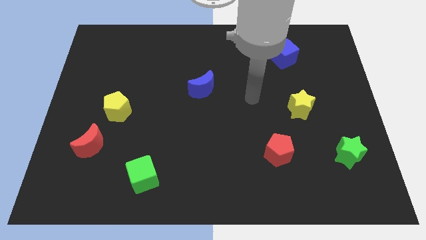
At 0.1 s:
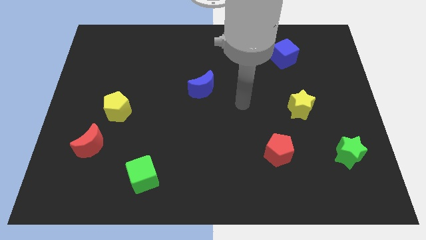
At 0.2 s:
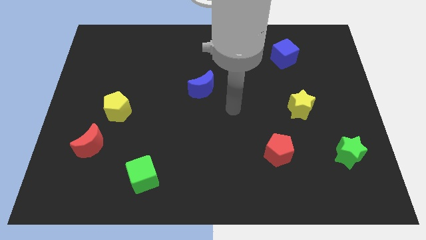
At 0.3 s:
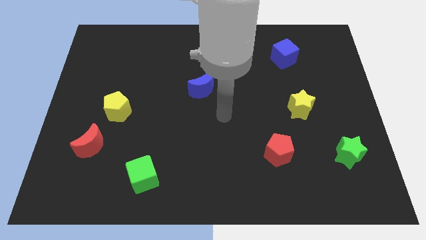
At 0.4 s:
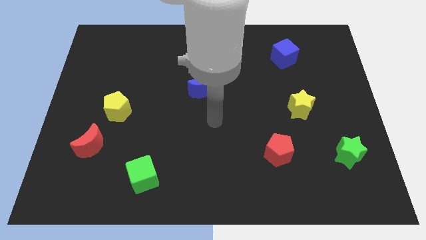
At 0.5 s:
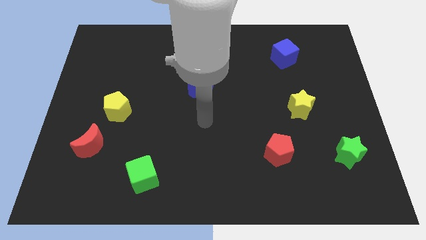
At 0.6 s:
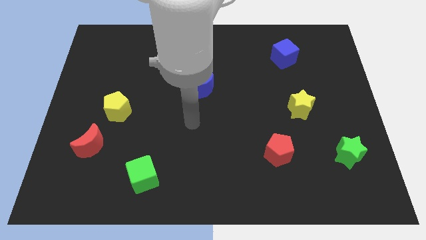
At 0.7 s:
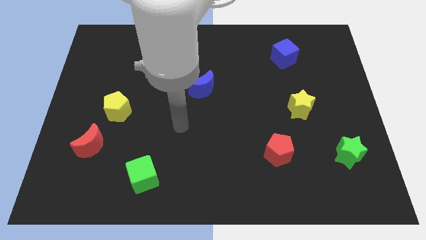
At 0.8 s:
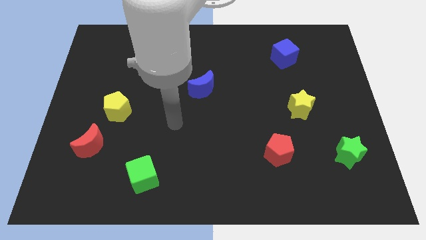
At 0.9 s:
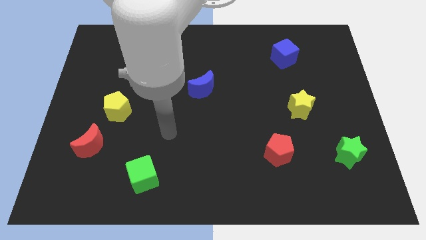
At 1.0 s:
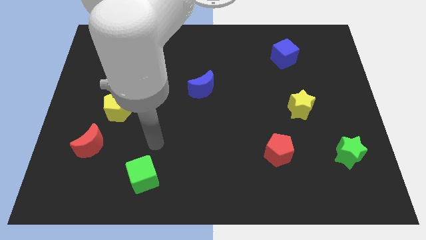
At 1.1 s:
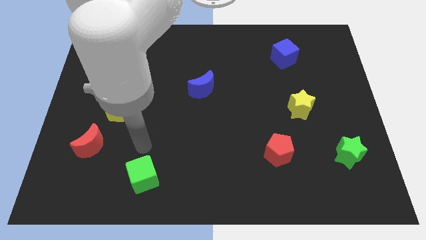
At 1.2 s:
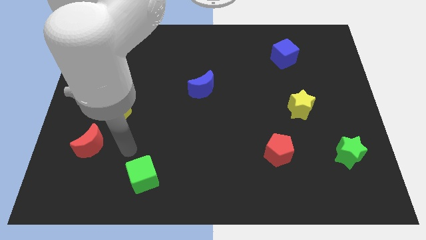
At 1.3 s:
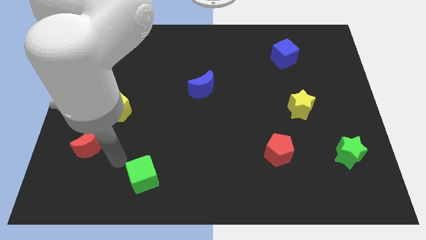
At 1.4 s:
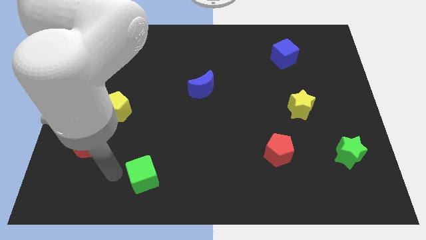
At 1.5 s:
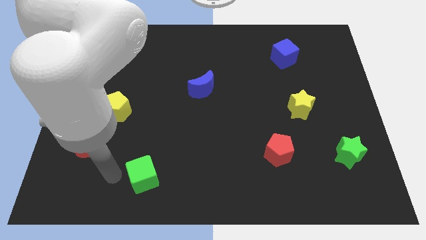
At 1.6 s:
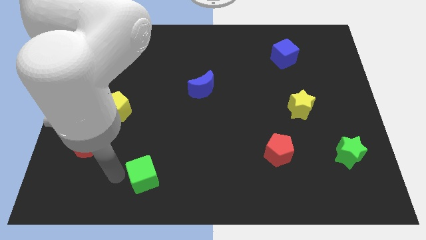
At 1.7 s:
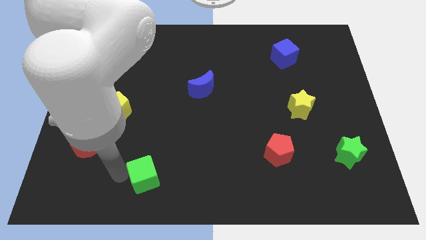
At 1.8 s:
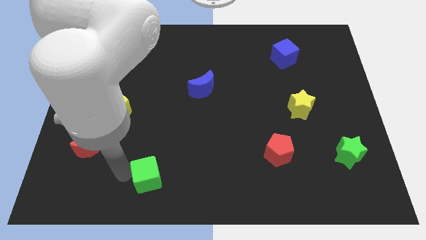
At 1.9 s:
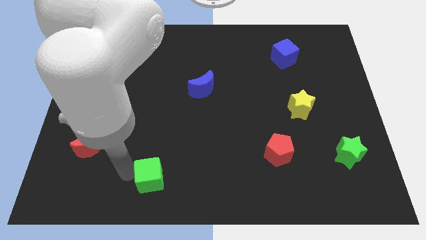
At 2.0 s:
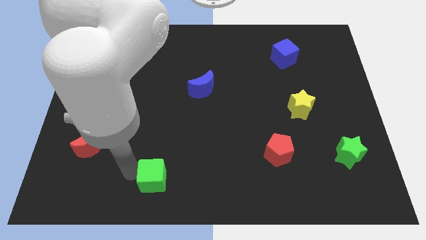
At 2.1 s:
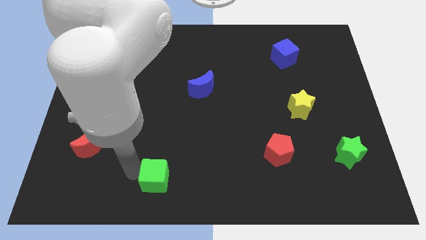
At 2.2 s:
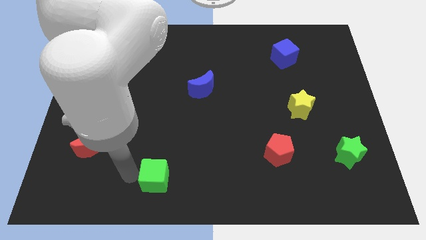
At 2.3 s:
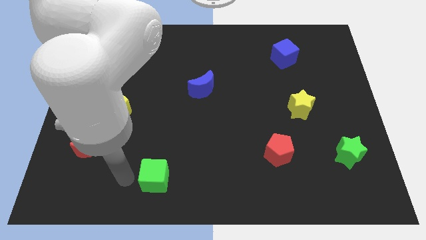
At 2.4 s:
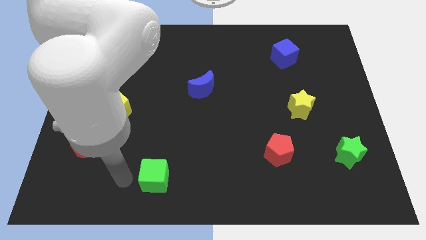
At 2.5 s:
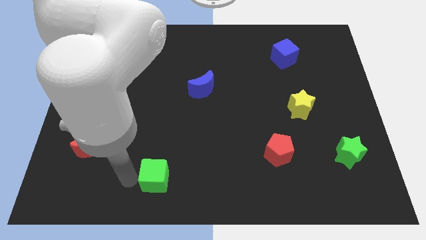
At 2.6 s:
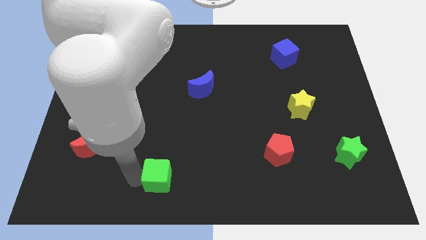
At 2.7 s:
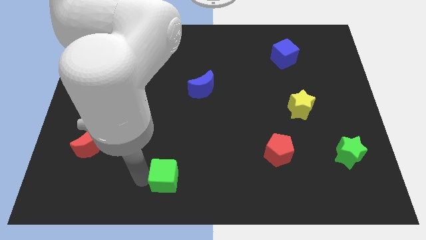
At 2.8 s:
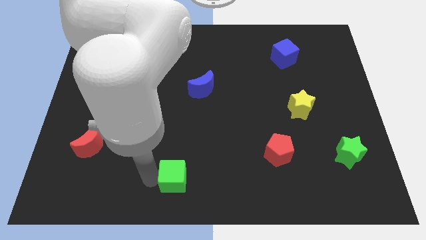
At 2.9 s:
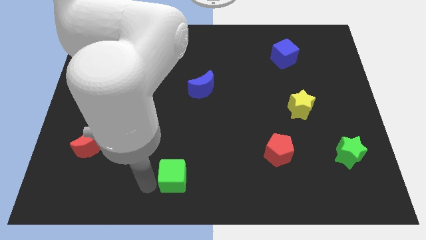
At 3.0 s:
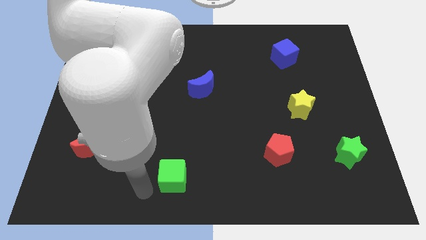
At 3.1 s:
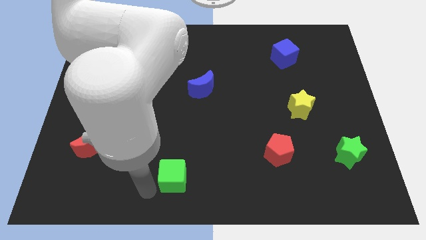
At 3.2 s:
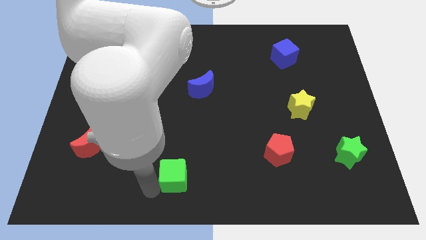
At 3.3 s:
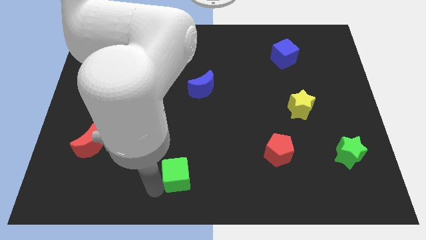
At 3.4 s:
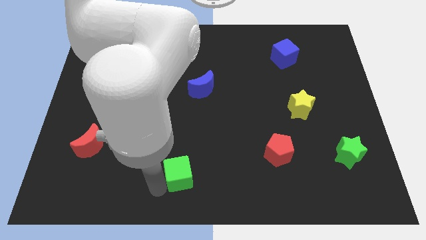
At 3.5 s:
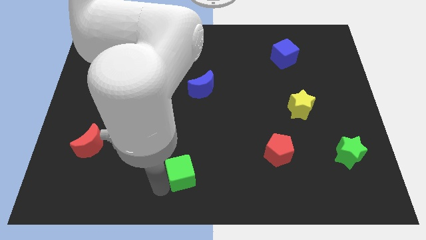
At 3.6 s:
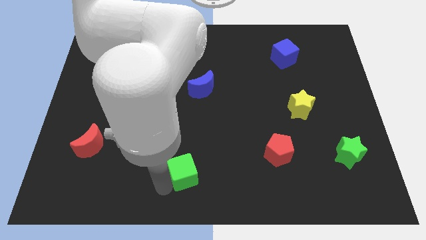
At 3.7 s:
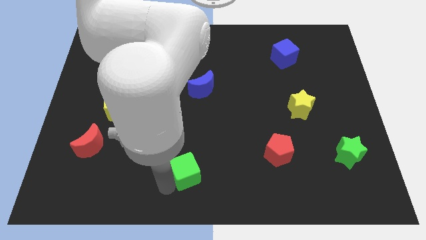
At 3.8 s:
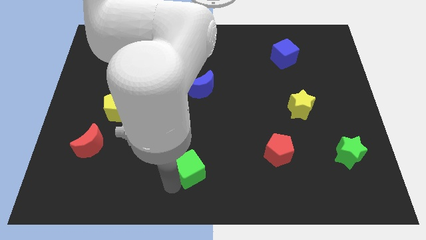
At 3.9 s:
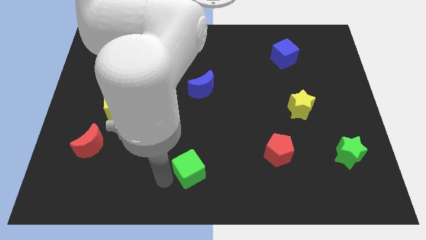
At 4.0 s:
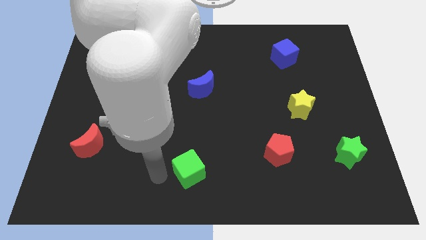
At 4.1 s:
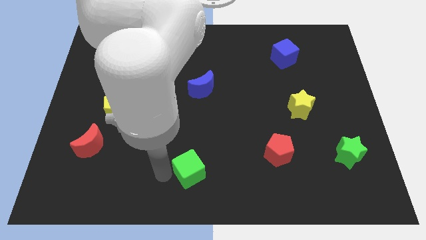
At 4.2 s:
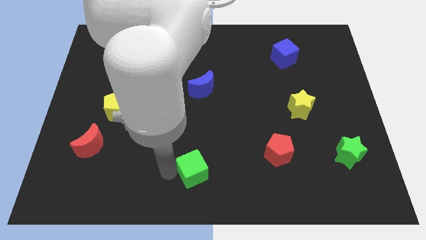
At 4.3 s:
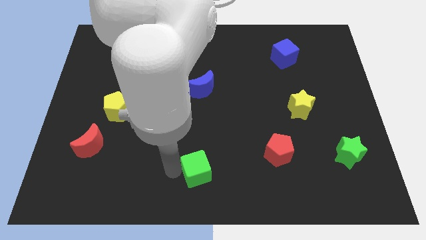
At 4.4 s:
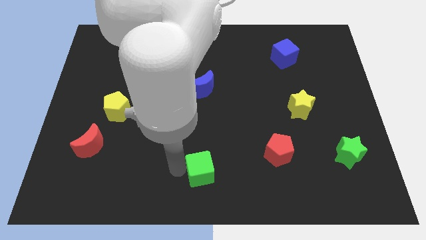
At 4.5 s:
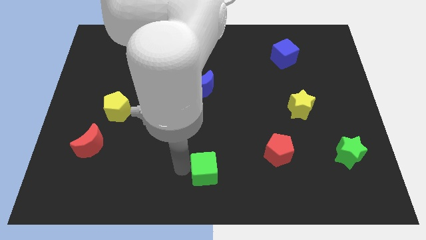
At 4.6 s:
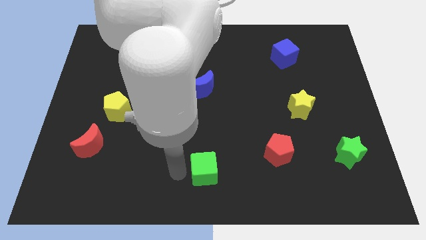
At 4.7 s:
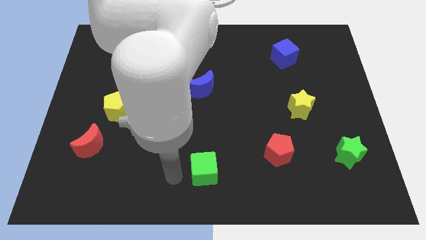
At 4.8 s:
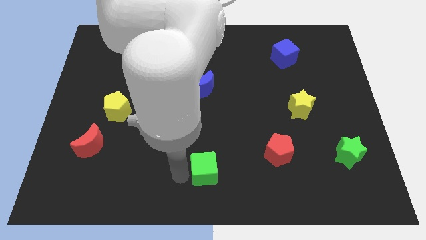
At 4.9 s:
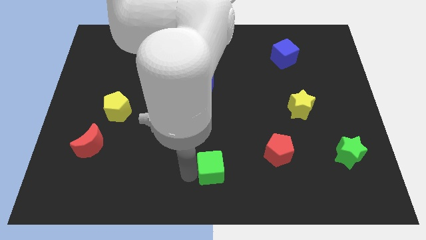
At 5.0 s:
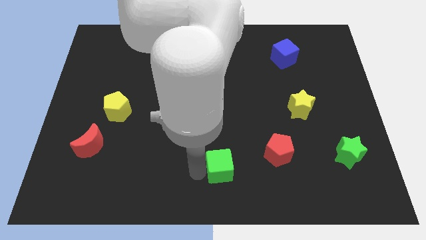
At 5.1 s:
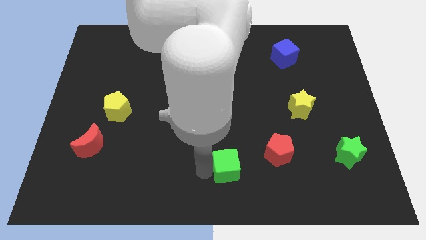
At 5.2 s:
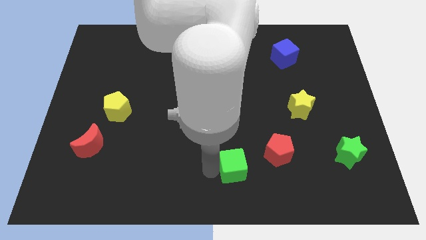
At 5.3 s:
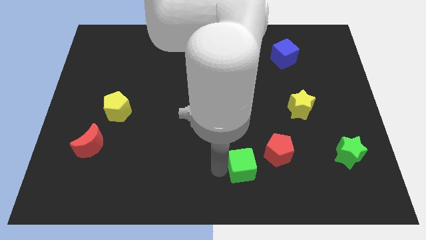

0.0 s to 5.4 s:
slide the green cube right

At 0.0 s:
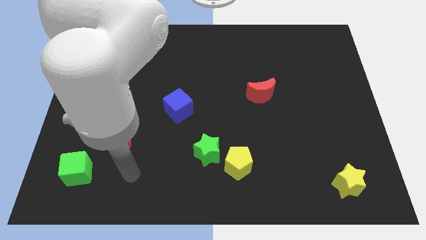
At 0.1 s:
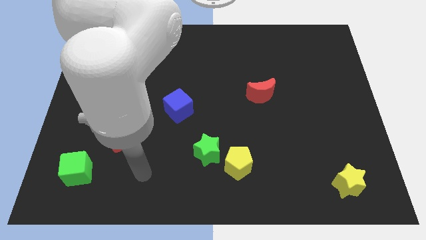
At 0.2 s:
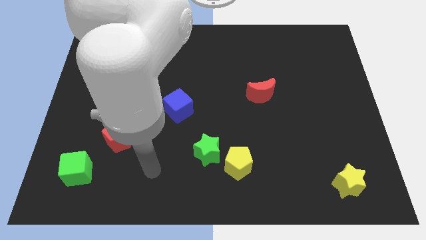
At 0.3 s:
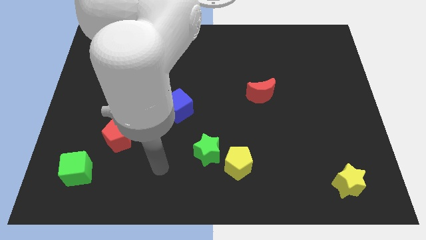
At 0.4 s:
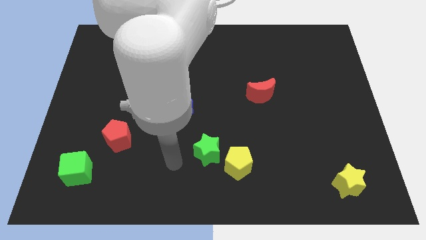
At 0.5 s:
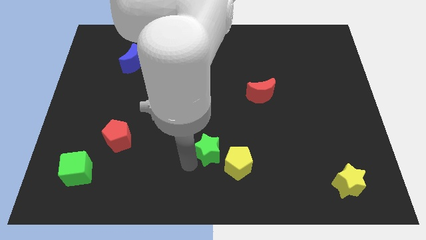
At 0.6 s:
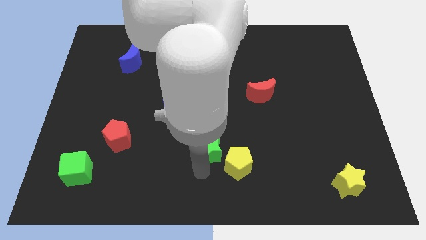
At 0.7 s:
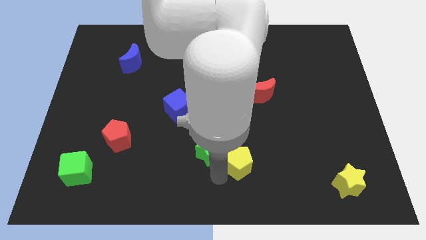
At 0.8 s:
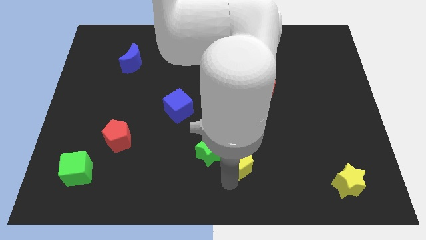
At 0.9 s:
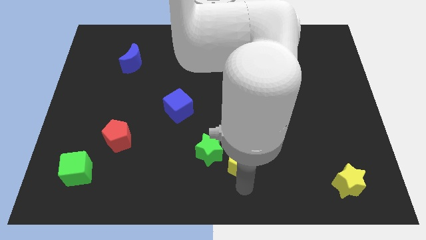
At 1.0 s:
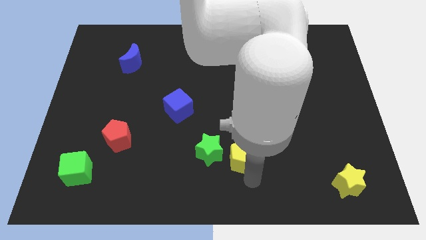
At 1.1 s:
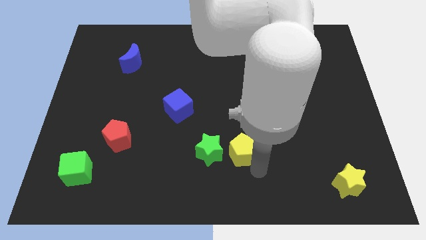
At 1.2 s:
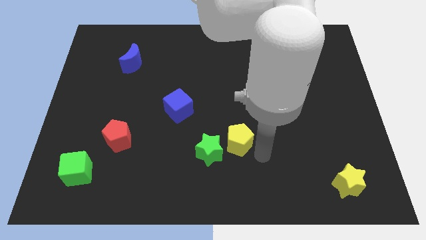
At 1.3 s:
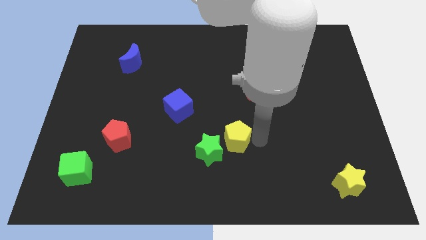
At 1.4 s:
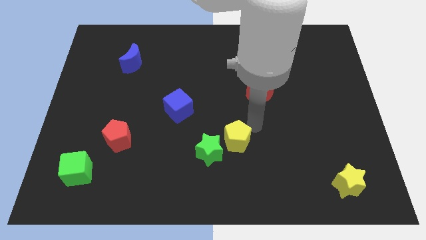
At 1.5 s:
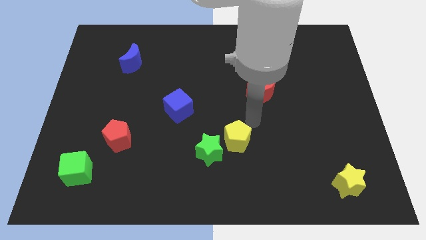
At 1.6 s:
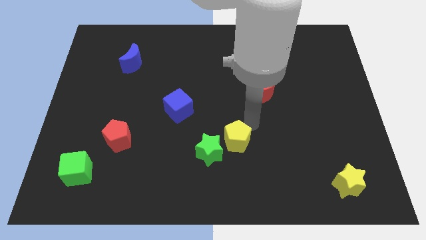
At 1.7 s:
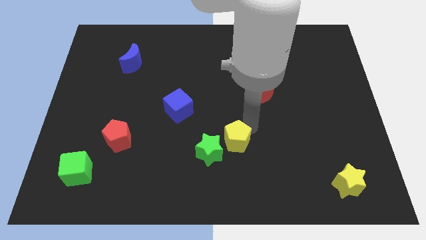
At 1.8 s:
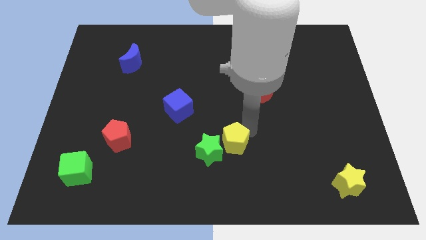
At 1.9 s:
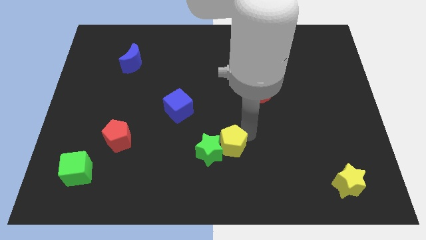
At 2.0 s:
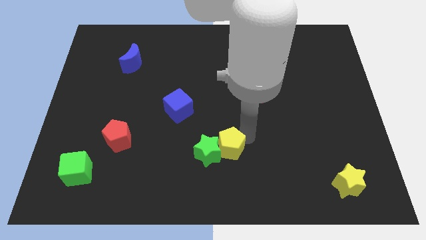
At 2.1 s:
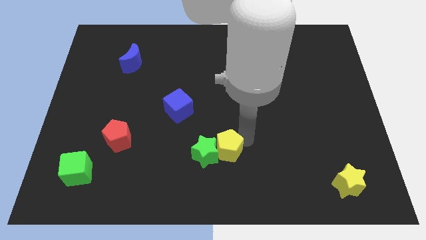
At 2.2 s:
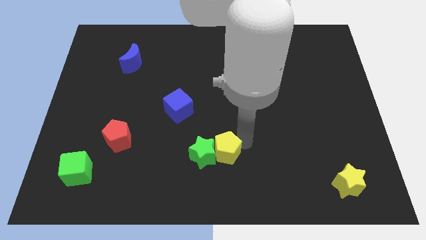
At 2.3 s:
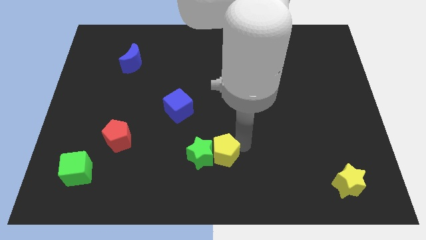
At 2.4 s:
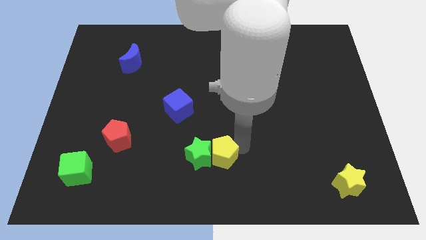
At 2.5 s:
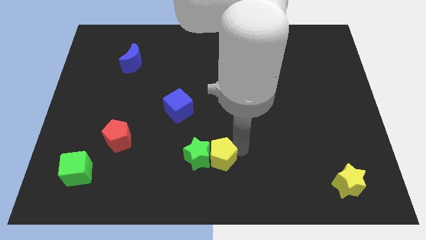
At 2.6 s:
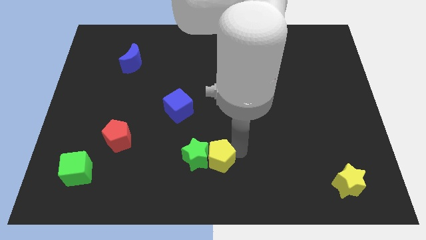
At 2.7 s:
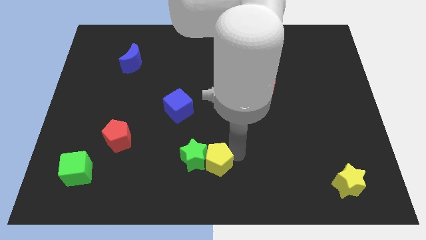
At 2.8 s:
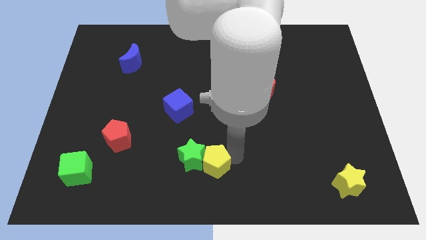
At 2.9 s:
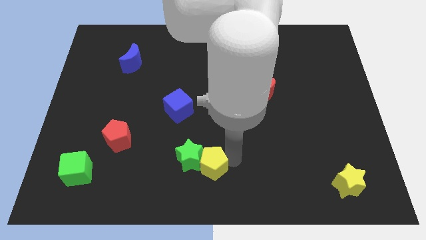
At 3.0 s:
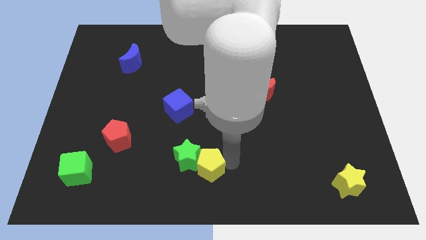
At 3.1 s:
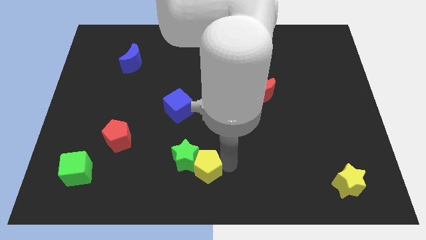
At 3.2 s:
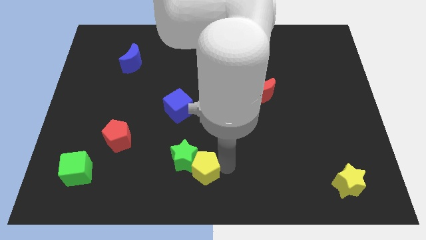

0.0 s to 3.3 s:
slightly push the yellow pentagon left
